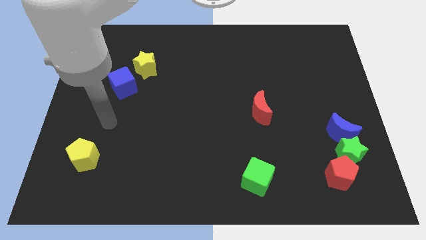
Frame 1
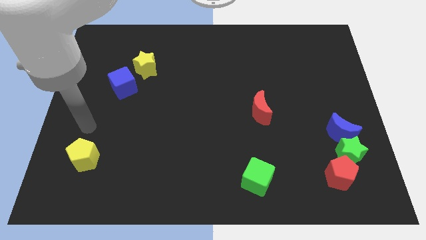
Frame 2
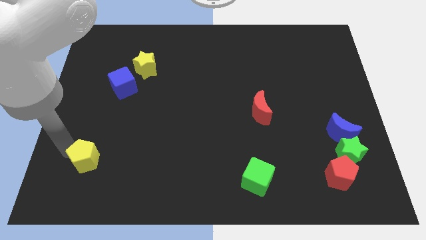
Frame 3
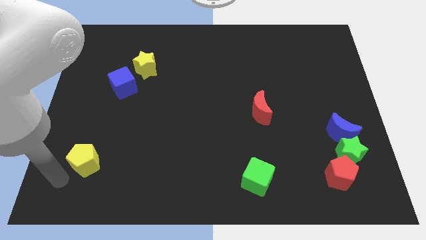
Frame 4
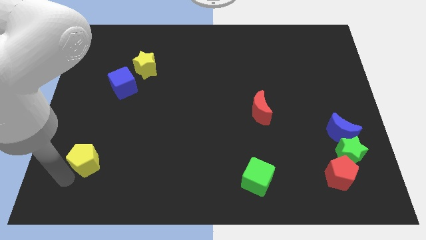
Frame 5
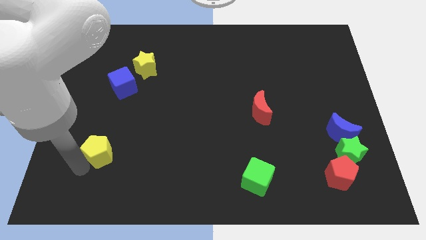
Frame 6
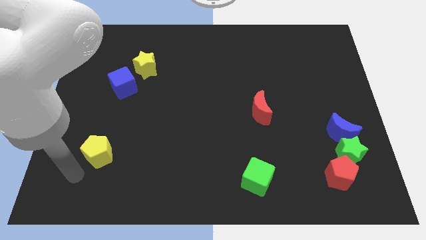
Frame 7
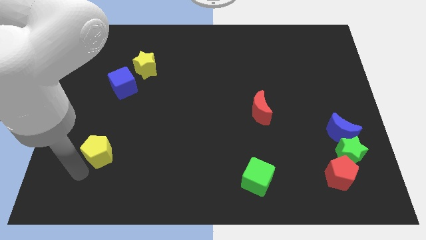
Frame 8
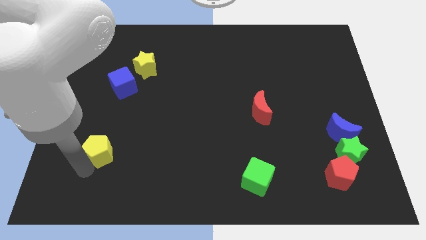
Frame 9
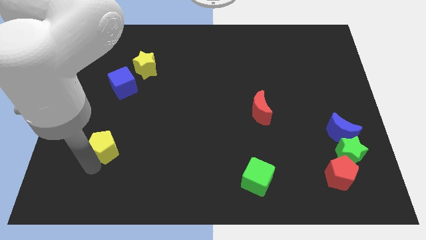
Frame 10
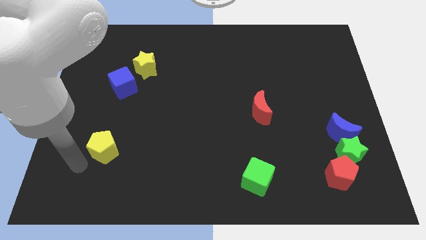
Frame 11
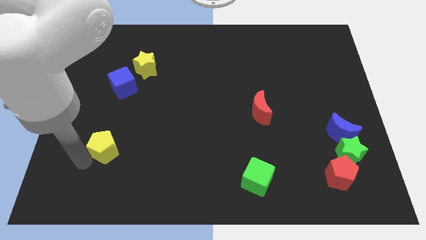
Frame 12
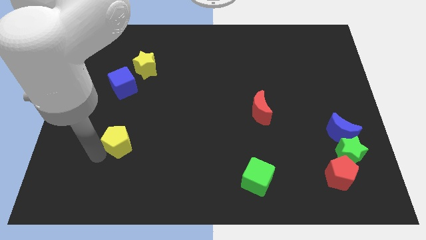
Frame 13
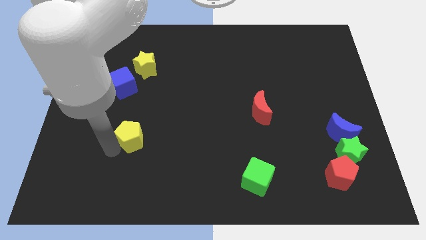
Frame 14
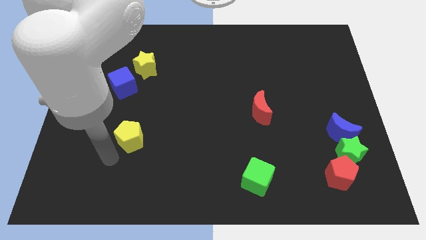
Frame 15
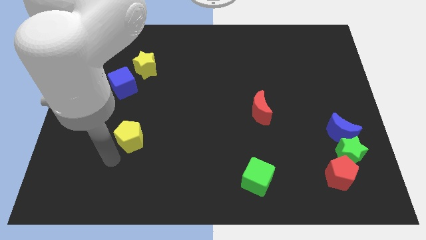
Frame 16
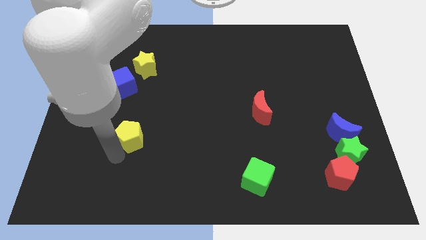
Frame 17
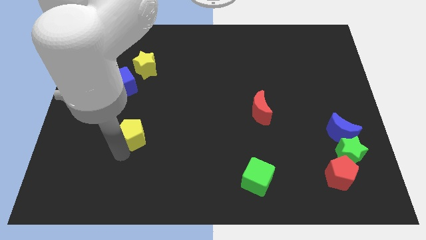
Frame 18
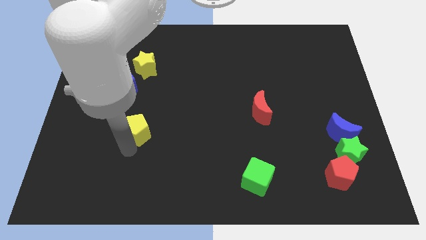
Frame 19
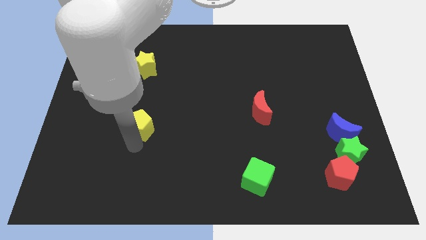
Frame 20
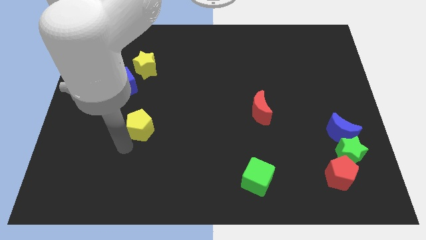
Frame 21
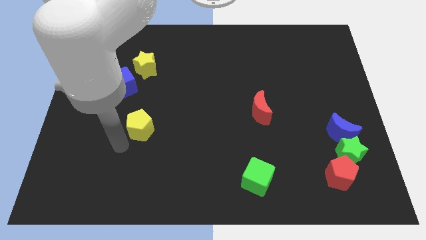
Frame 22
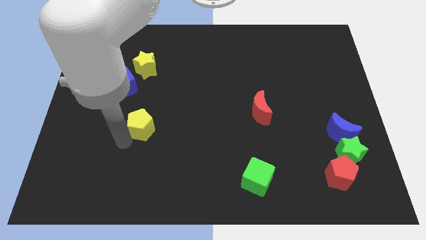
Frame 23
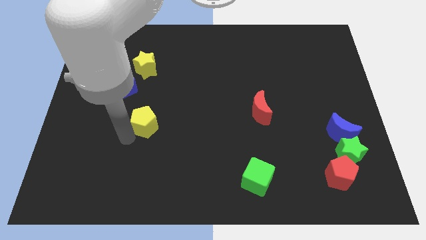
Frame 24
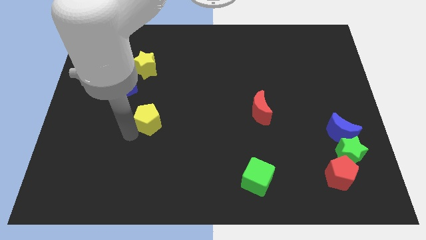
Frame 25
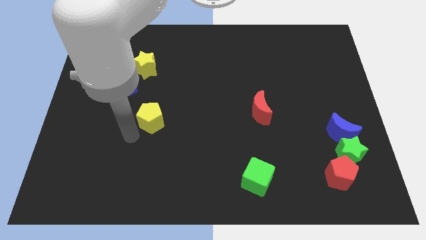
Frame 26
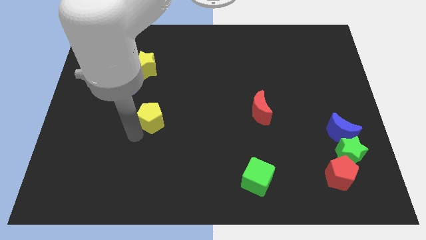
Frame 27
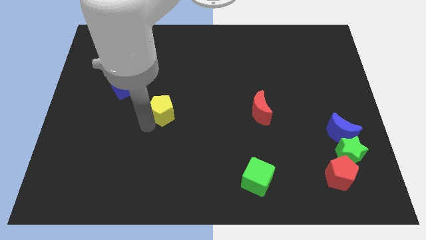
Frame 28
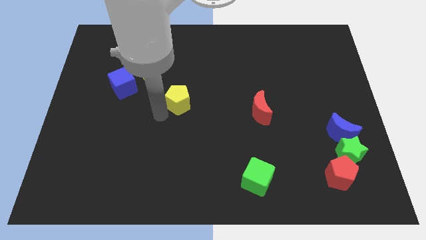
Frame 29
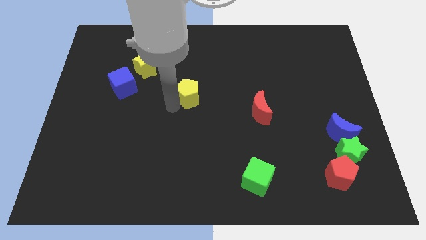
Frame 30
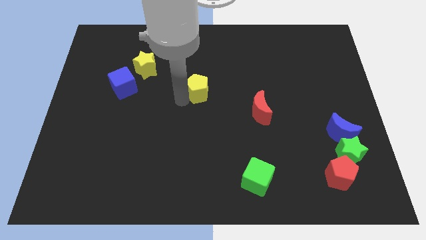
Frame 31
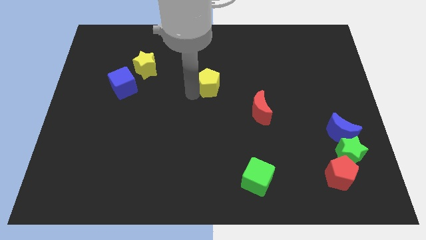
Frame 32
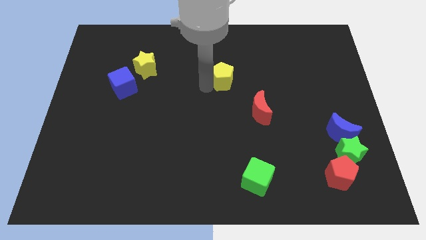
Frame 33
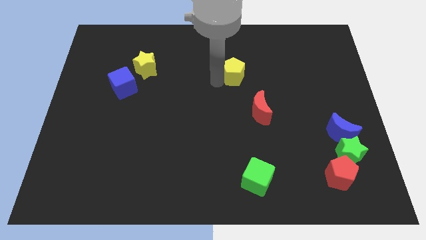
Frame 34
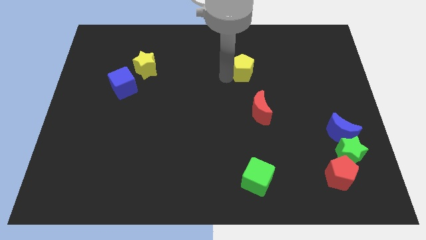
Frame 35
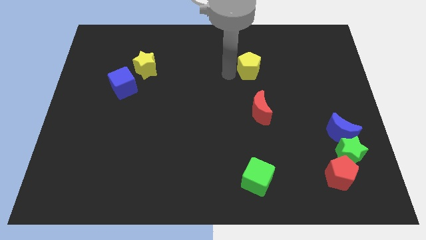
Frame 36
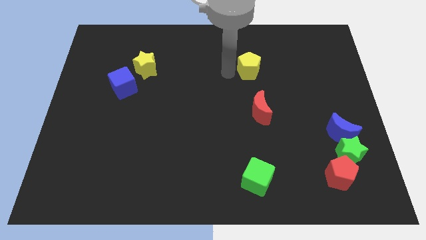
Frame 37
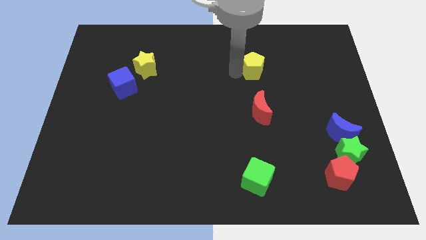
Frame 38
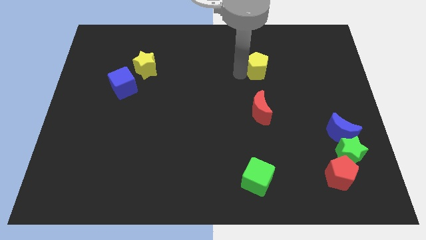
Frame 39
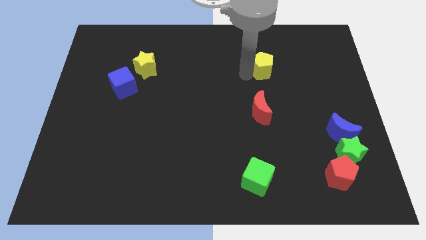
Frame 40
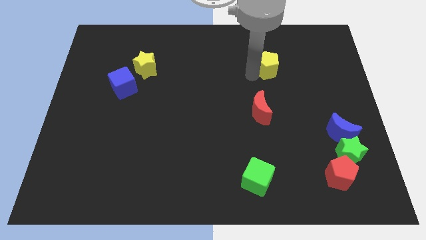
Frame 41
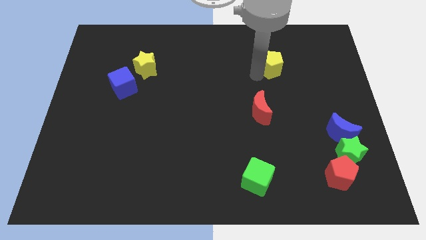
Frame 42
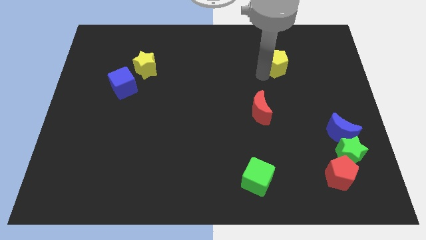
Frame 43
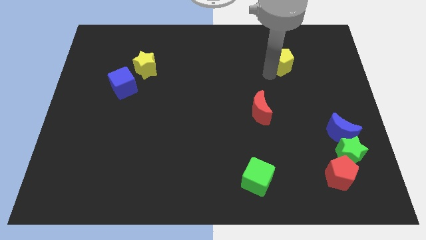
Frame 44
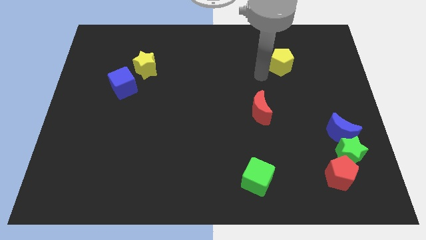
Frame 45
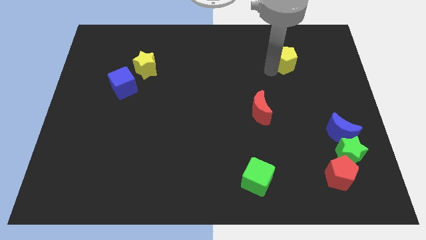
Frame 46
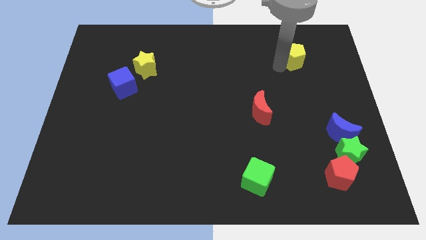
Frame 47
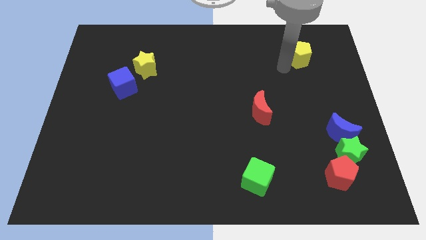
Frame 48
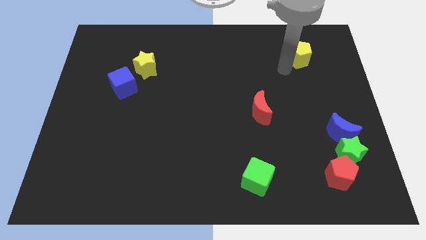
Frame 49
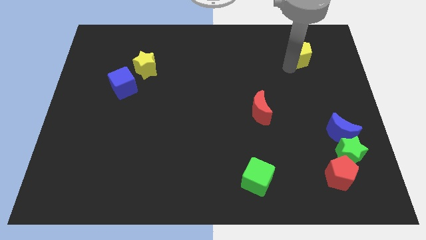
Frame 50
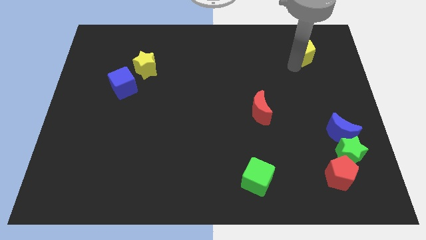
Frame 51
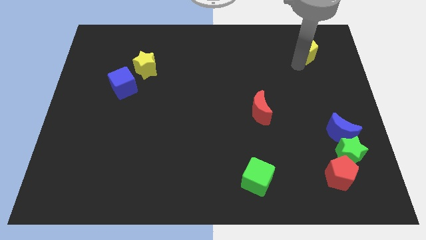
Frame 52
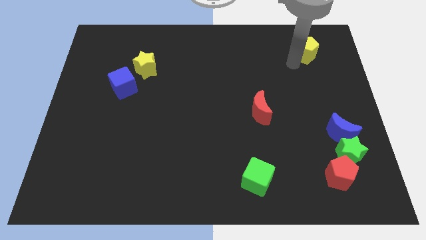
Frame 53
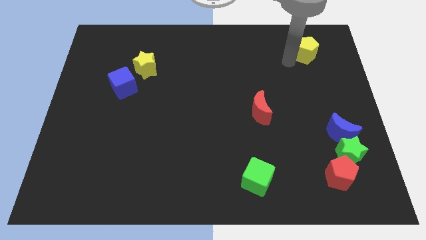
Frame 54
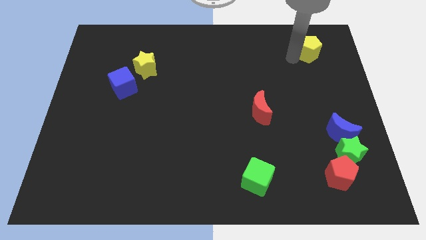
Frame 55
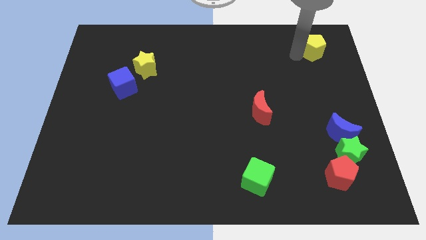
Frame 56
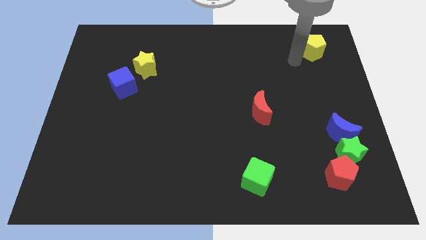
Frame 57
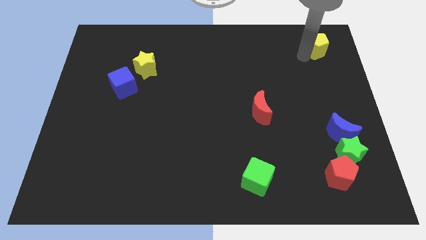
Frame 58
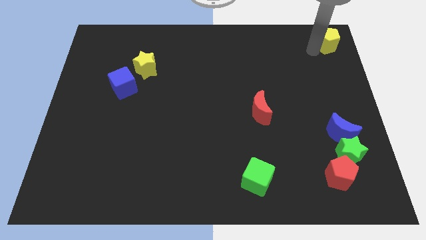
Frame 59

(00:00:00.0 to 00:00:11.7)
push the yellow pentagon to the top right

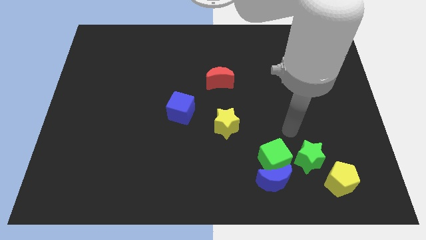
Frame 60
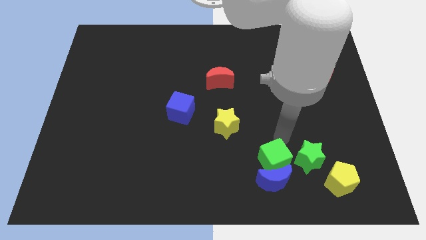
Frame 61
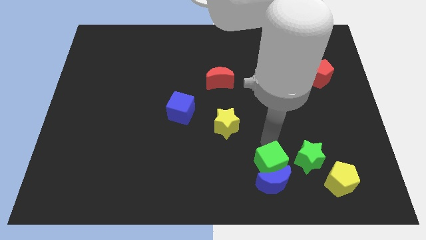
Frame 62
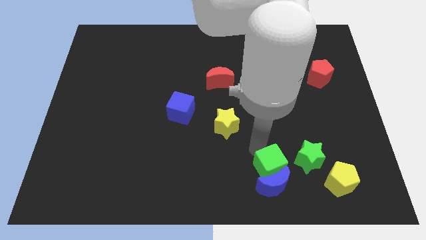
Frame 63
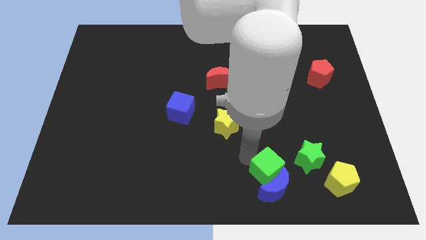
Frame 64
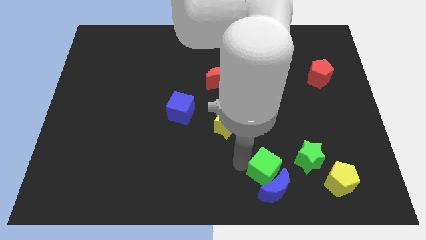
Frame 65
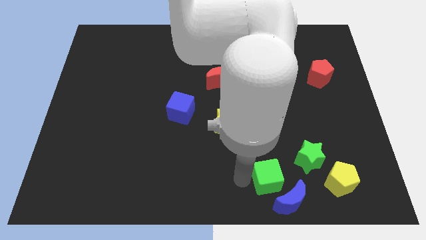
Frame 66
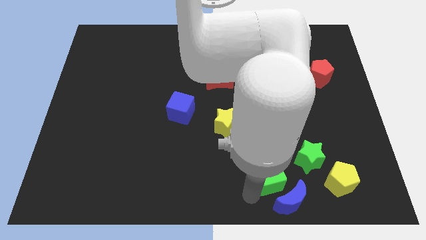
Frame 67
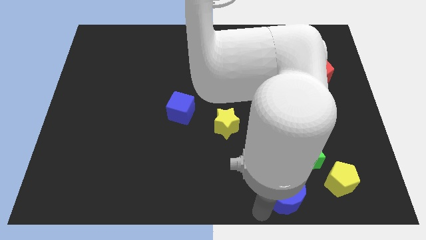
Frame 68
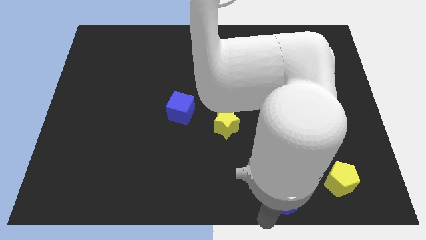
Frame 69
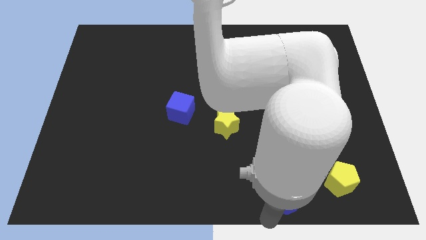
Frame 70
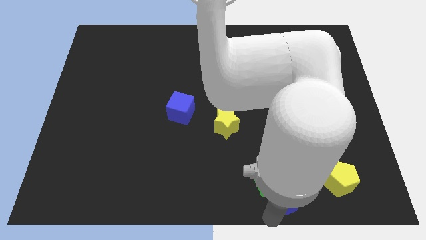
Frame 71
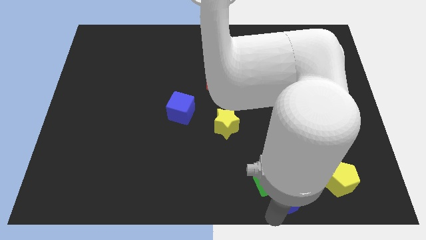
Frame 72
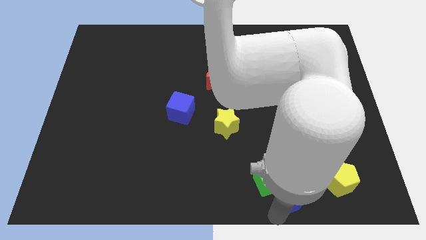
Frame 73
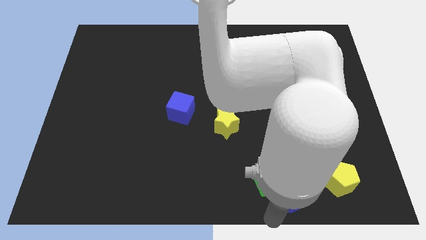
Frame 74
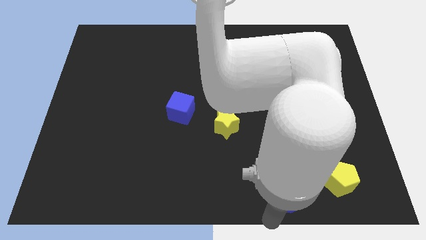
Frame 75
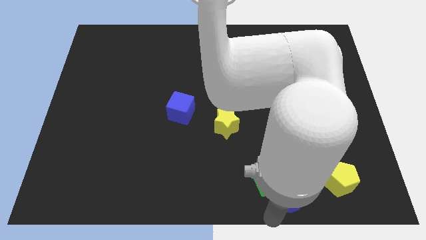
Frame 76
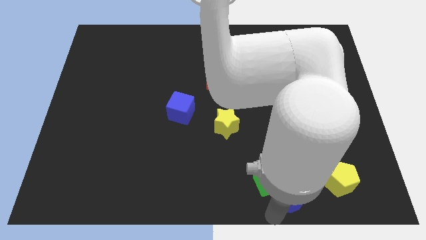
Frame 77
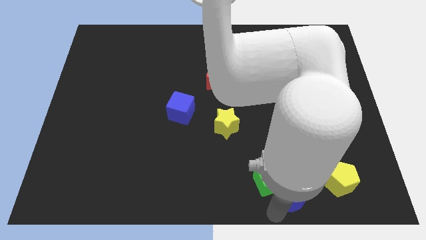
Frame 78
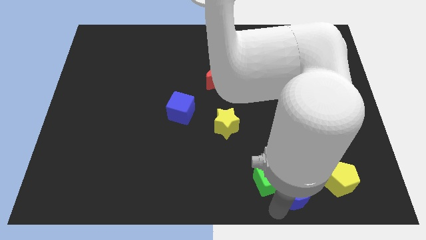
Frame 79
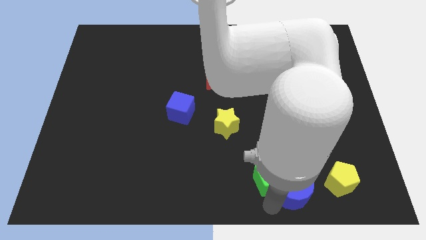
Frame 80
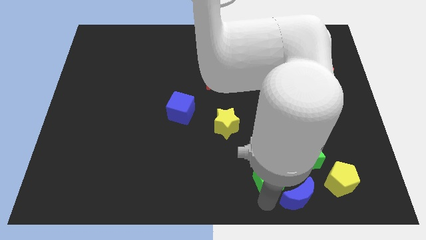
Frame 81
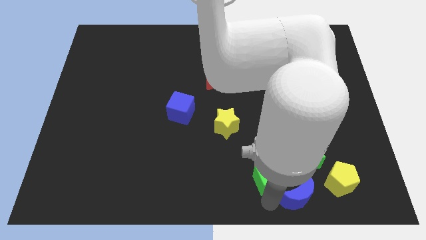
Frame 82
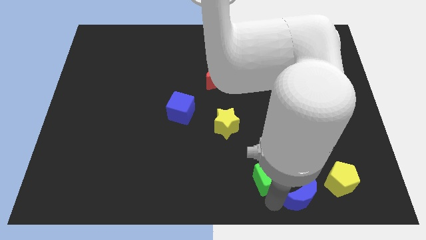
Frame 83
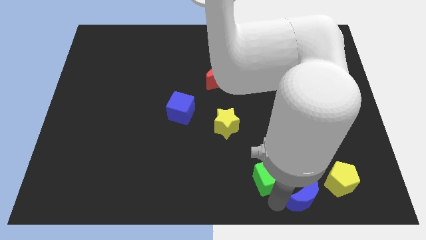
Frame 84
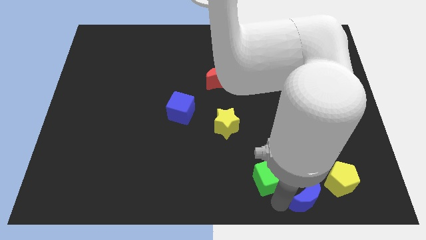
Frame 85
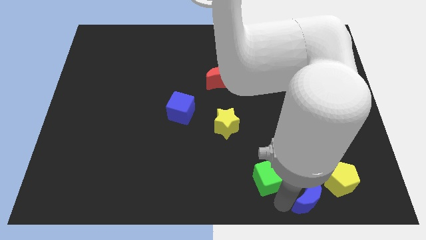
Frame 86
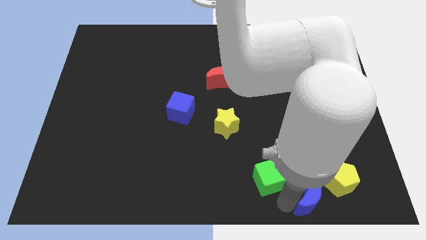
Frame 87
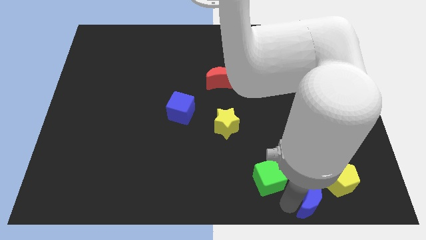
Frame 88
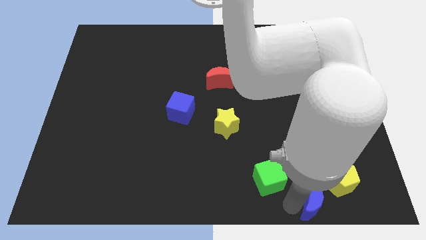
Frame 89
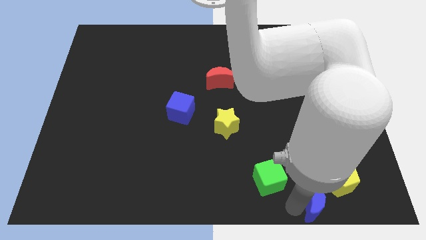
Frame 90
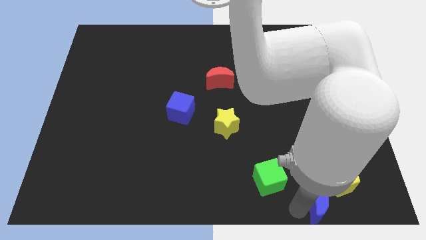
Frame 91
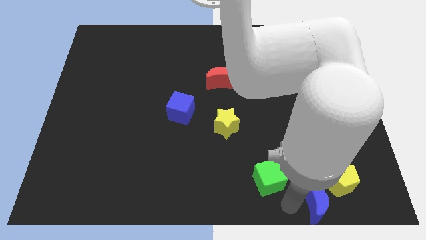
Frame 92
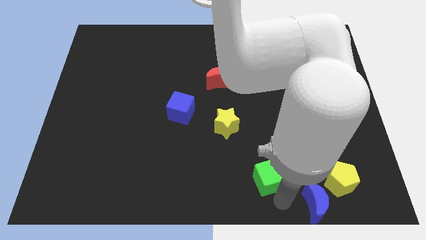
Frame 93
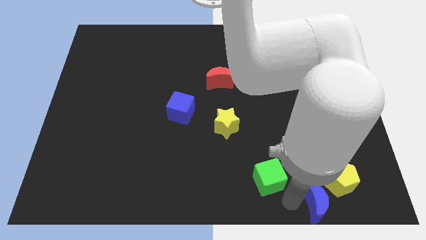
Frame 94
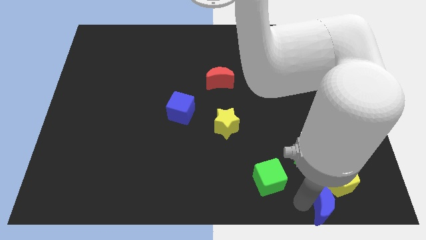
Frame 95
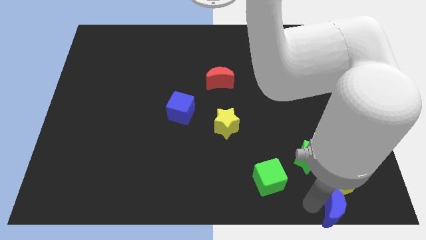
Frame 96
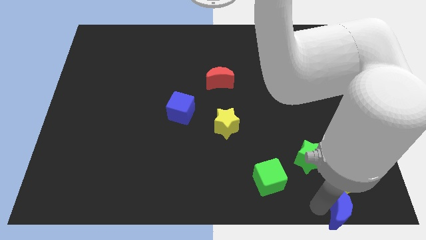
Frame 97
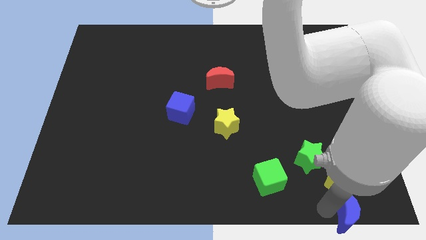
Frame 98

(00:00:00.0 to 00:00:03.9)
push the blue moon to the bottom right
